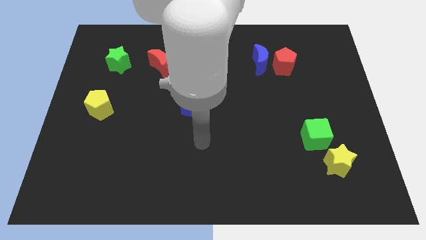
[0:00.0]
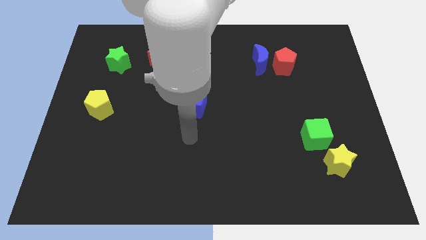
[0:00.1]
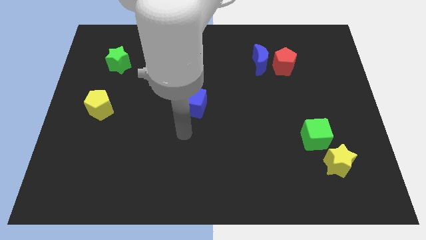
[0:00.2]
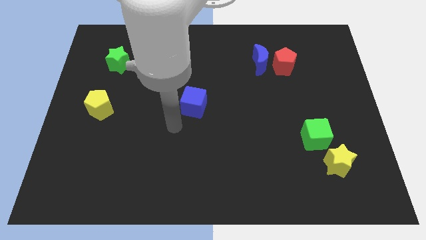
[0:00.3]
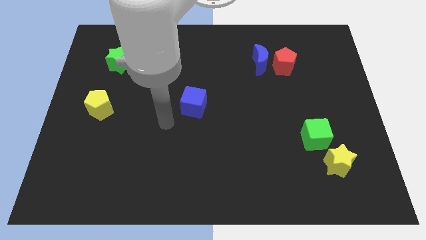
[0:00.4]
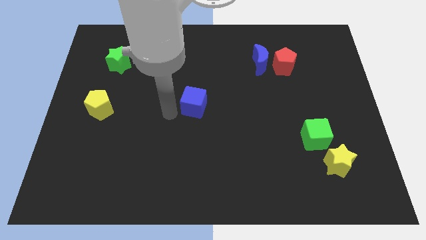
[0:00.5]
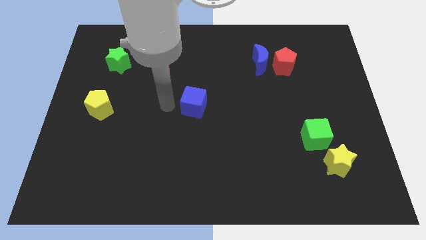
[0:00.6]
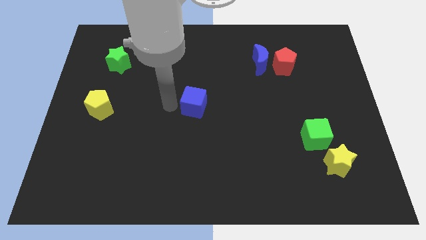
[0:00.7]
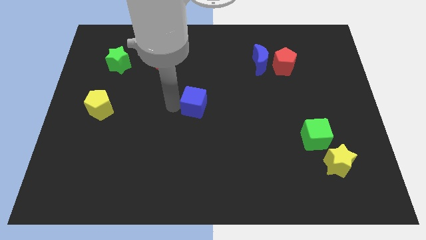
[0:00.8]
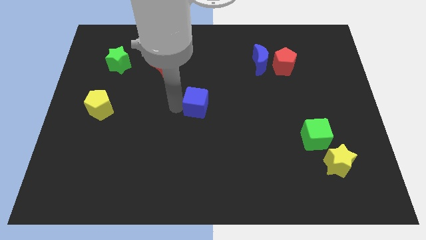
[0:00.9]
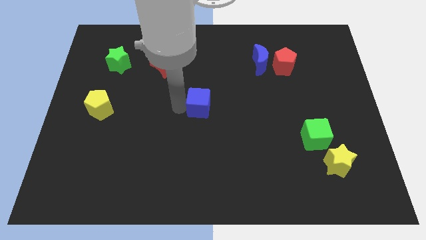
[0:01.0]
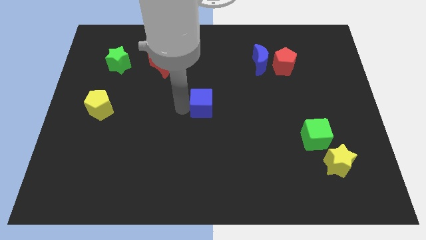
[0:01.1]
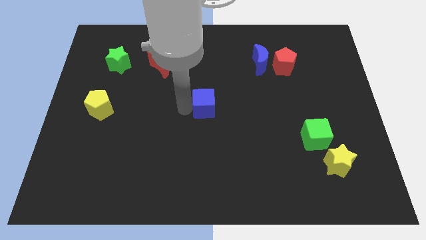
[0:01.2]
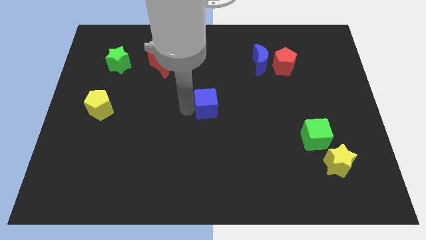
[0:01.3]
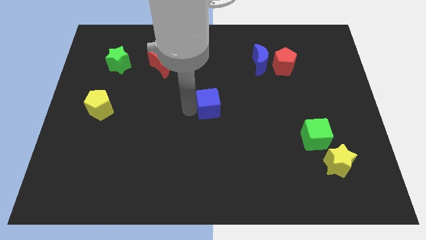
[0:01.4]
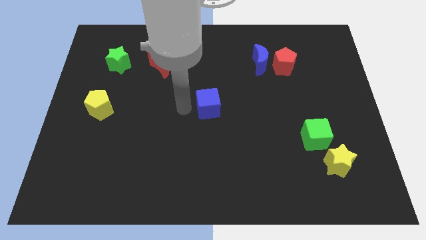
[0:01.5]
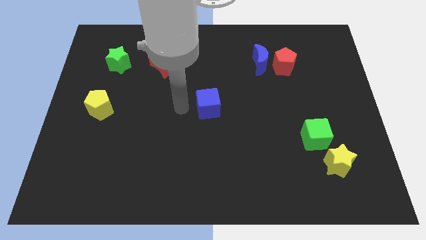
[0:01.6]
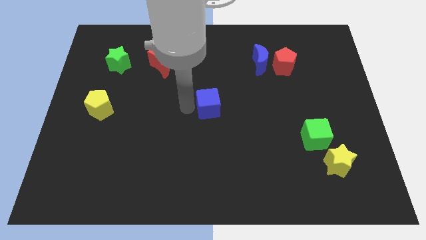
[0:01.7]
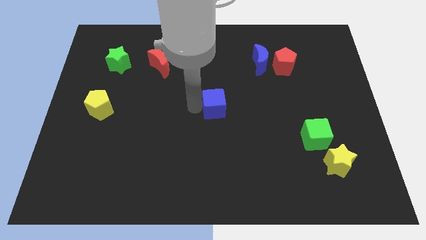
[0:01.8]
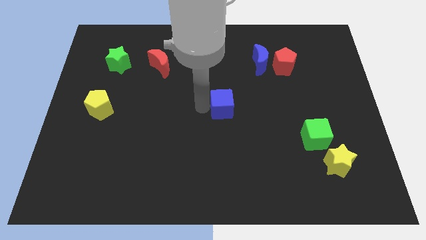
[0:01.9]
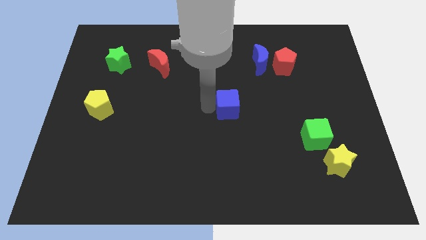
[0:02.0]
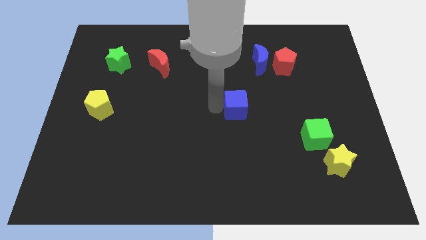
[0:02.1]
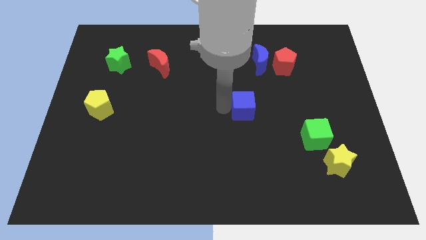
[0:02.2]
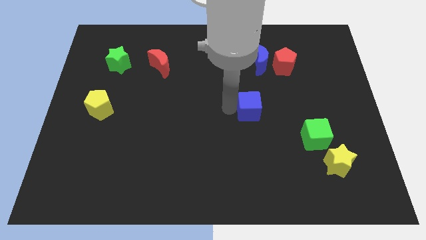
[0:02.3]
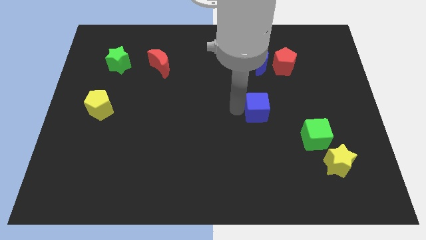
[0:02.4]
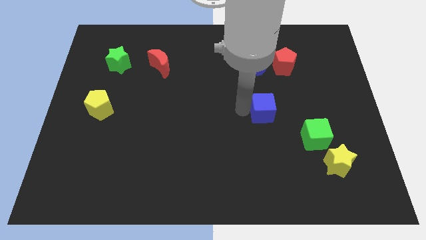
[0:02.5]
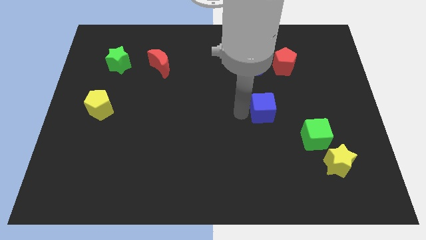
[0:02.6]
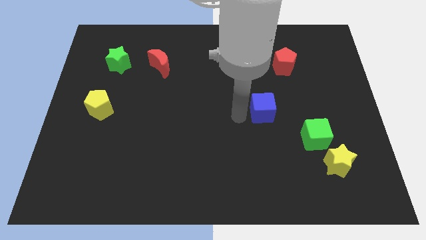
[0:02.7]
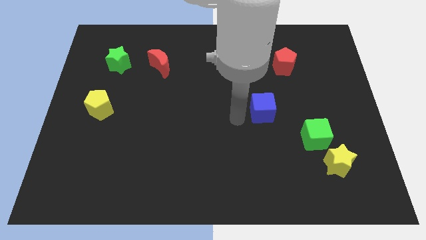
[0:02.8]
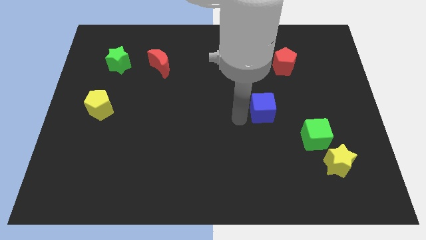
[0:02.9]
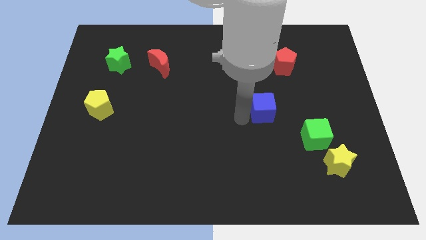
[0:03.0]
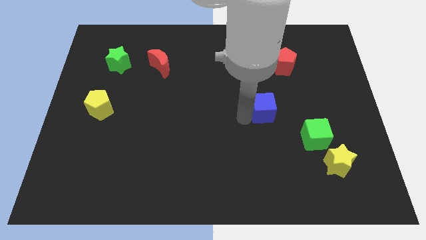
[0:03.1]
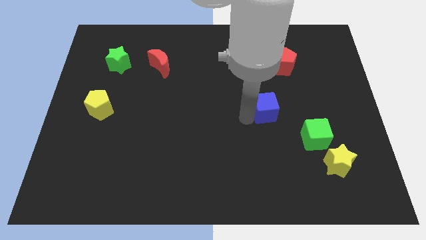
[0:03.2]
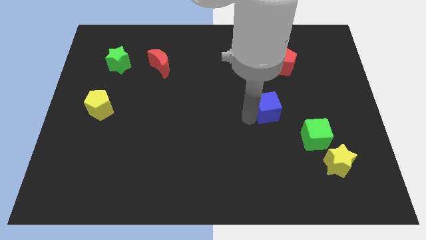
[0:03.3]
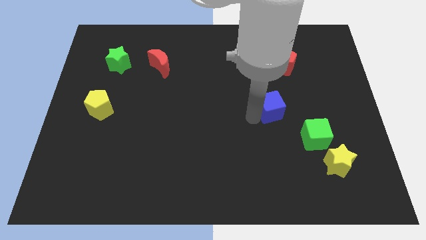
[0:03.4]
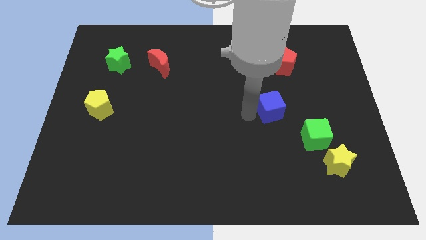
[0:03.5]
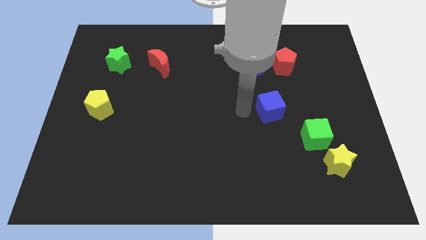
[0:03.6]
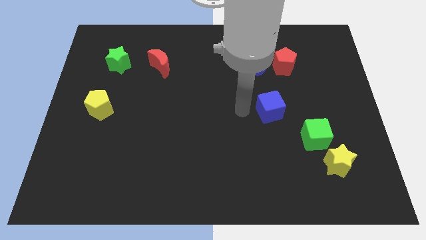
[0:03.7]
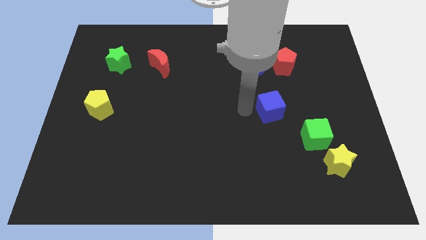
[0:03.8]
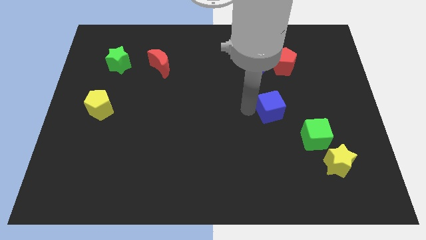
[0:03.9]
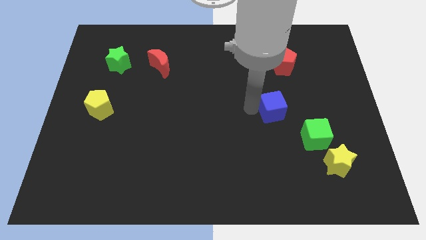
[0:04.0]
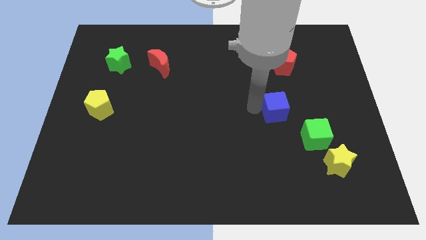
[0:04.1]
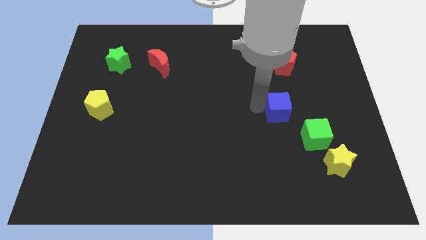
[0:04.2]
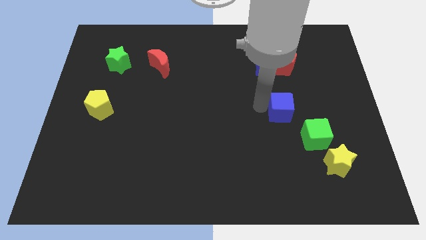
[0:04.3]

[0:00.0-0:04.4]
slide the blue cube right

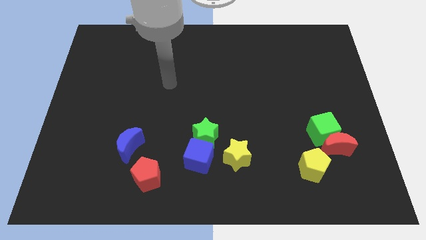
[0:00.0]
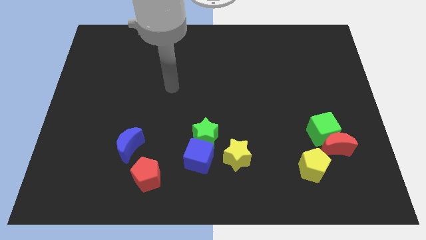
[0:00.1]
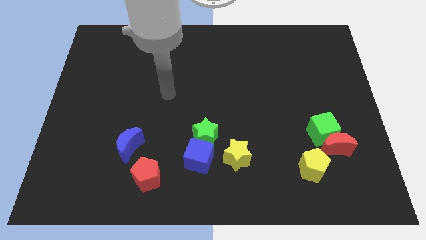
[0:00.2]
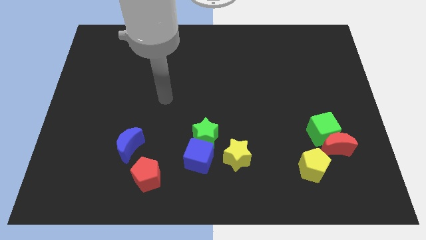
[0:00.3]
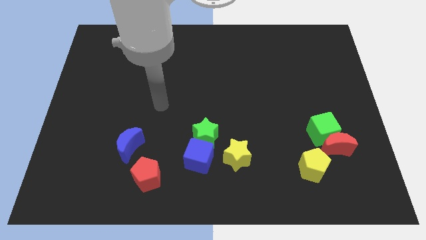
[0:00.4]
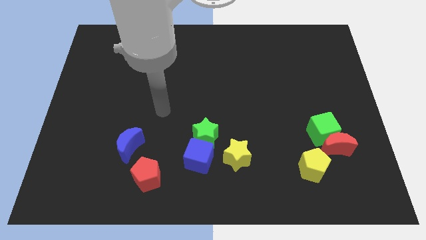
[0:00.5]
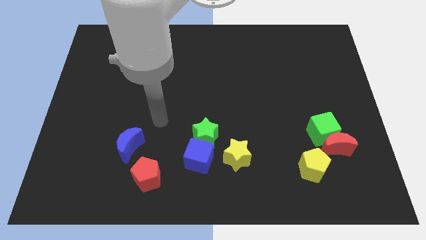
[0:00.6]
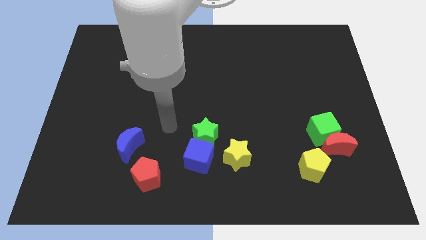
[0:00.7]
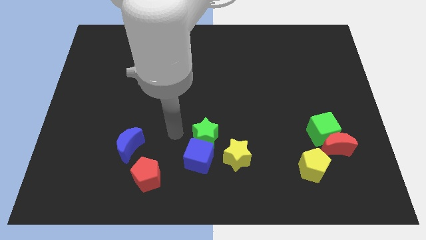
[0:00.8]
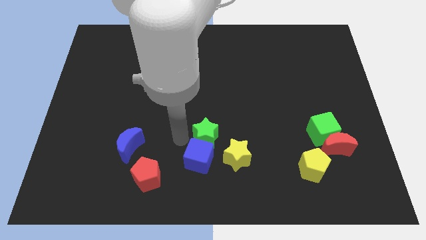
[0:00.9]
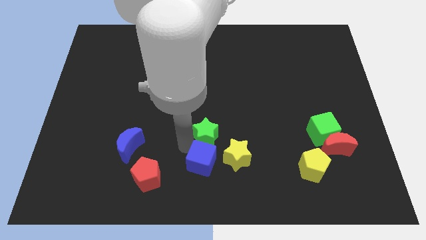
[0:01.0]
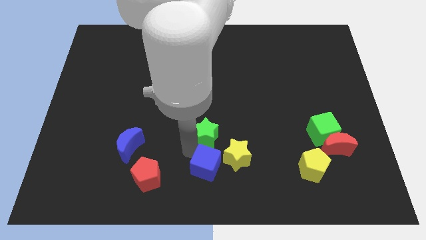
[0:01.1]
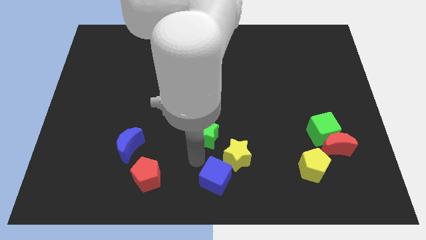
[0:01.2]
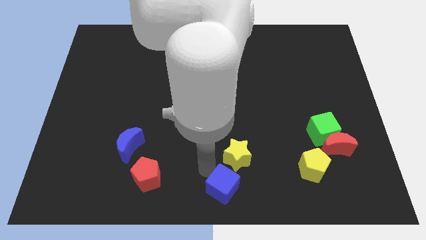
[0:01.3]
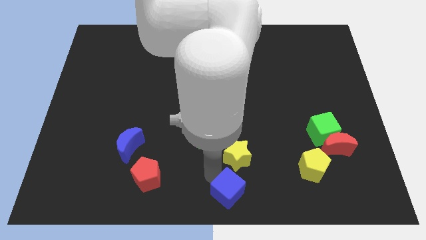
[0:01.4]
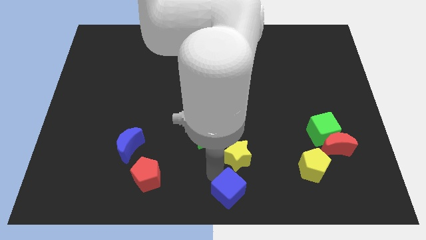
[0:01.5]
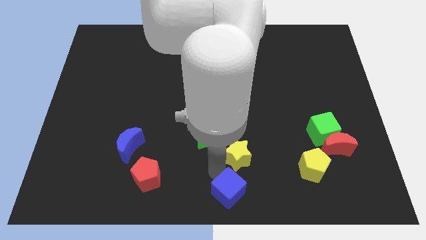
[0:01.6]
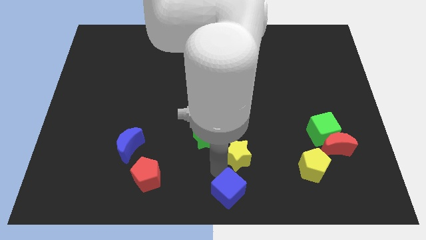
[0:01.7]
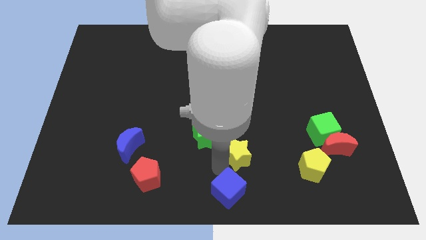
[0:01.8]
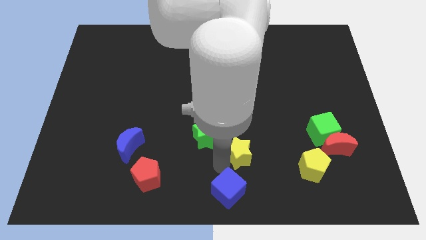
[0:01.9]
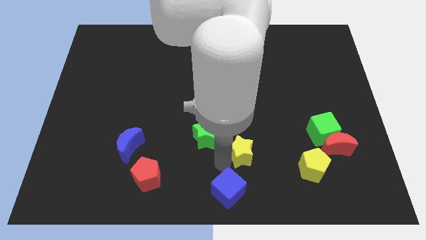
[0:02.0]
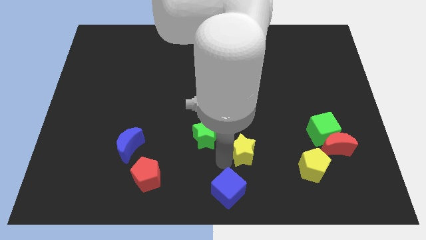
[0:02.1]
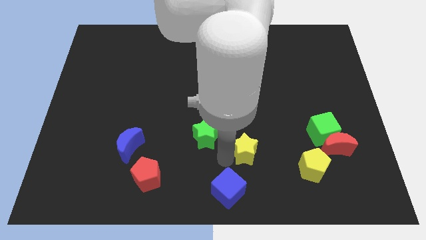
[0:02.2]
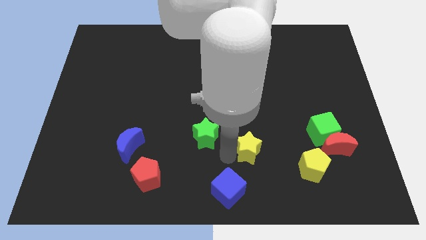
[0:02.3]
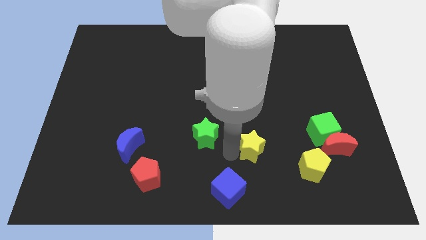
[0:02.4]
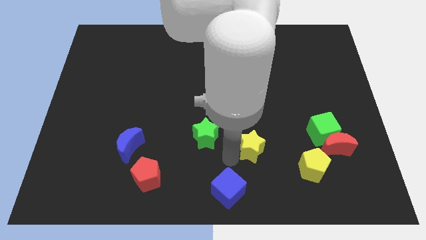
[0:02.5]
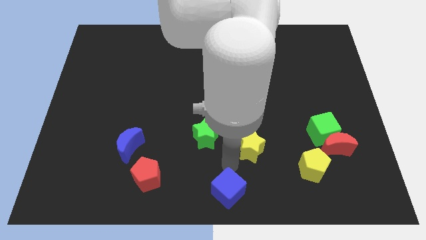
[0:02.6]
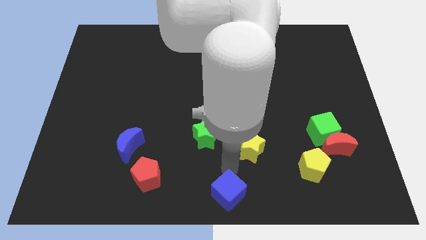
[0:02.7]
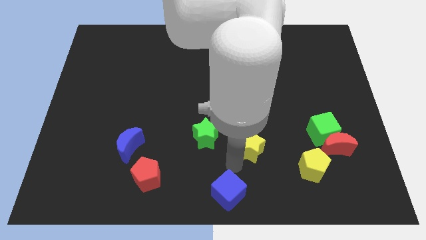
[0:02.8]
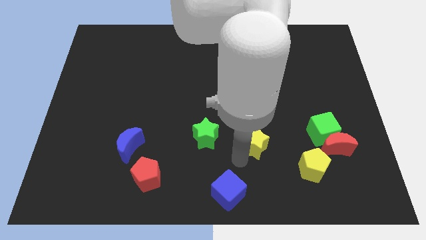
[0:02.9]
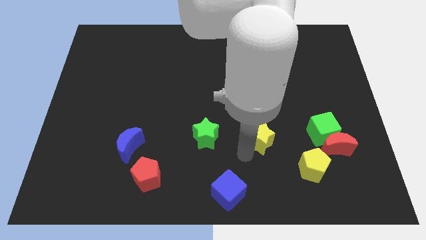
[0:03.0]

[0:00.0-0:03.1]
move the yellow star up and then to the right a bit

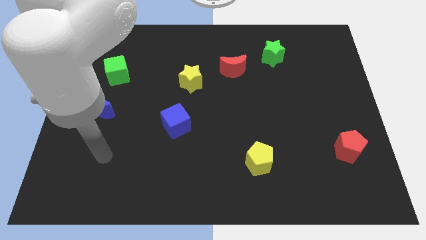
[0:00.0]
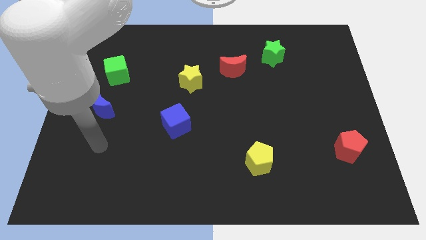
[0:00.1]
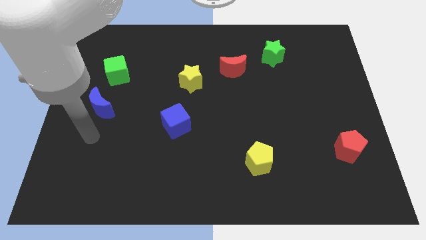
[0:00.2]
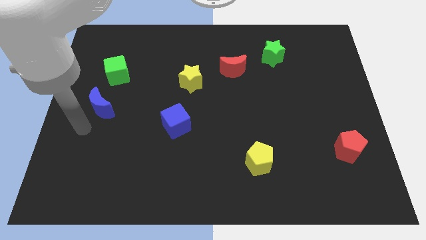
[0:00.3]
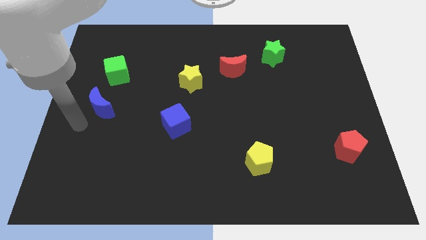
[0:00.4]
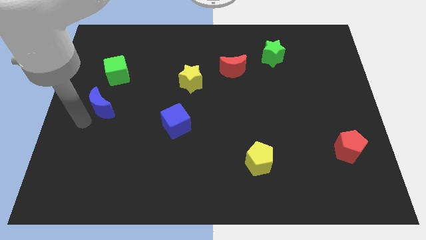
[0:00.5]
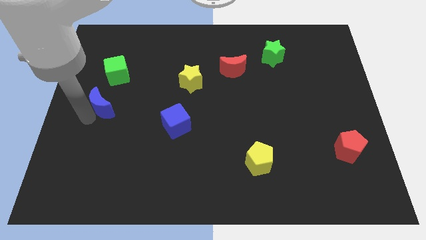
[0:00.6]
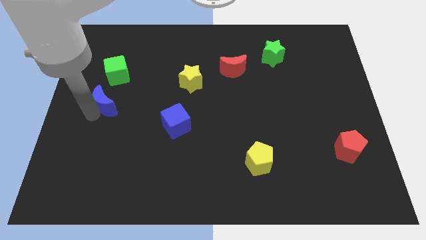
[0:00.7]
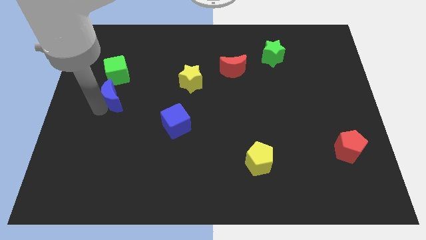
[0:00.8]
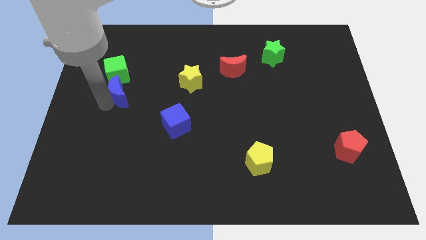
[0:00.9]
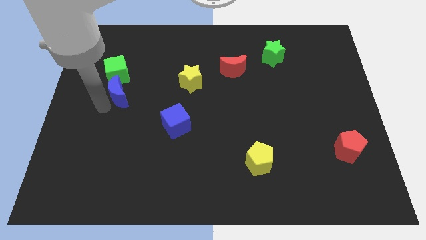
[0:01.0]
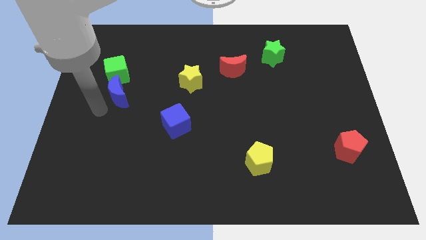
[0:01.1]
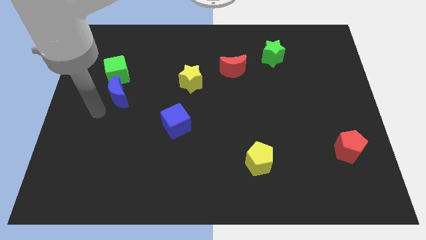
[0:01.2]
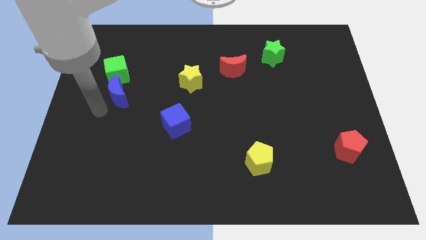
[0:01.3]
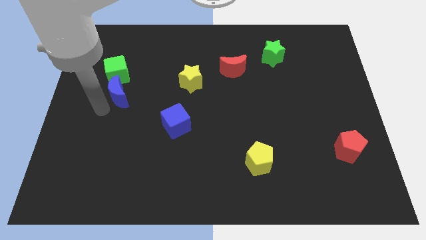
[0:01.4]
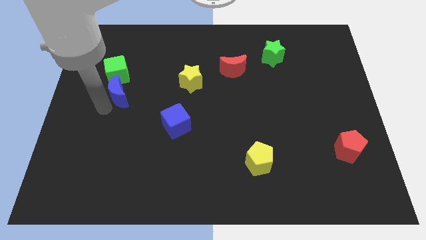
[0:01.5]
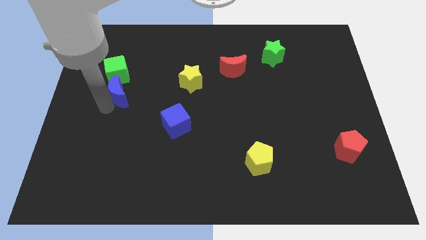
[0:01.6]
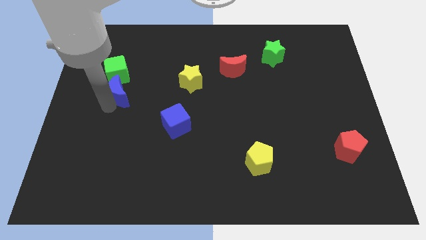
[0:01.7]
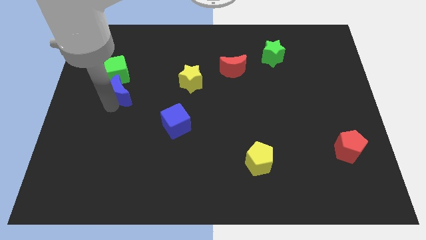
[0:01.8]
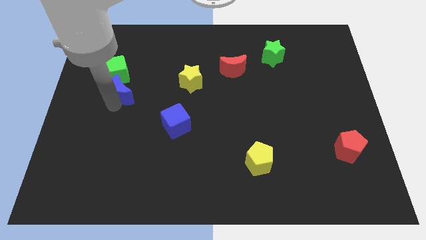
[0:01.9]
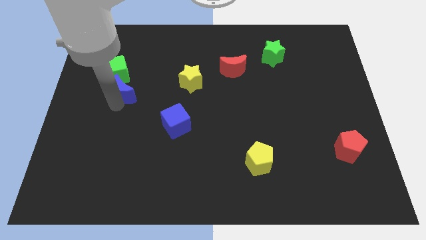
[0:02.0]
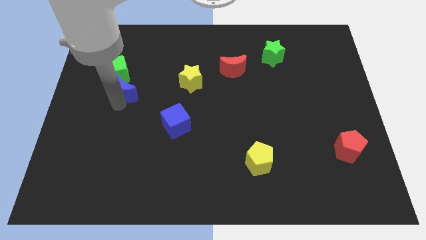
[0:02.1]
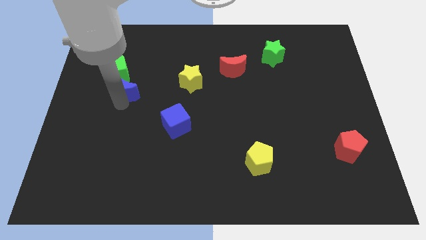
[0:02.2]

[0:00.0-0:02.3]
move the blue moon a bit up and right diagonally
